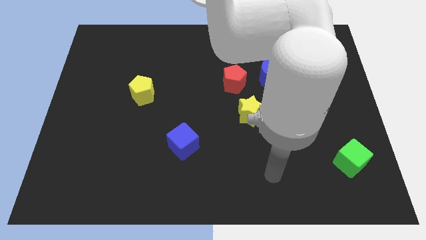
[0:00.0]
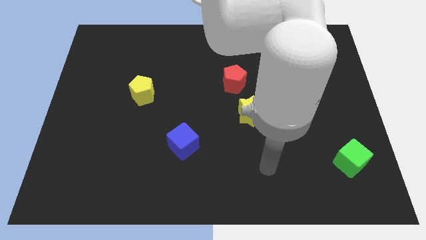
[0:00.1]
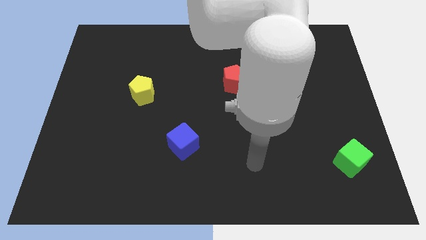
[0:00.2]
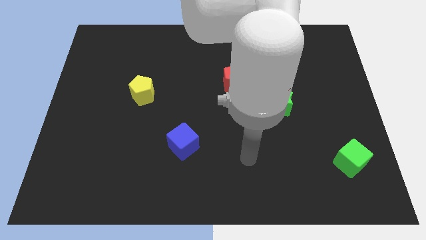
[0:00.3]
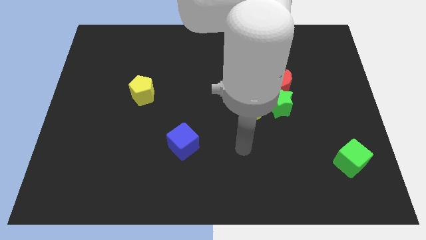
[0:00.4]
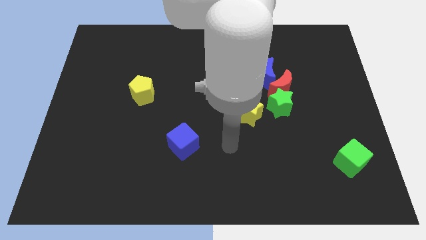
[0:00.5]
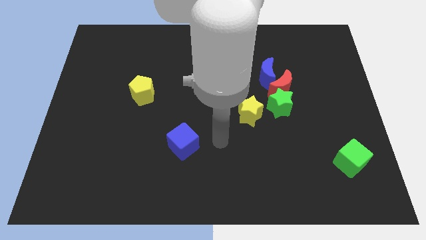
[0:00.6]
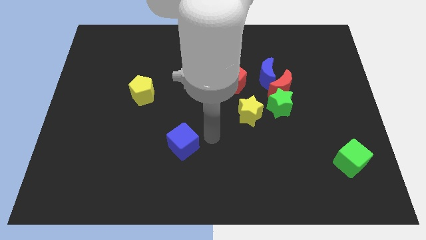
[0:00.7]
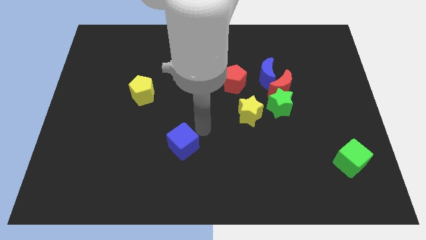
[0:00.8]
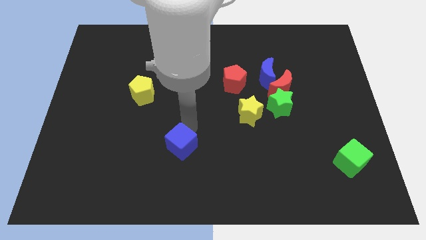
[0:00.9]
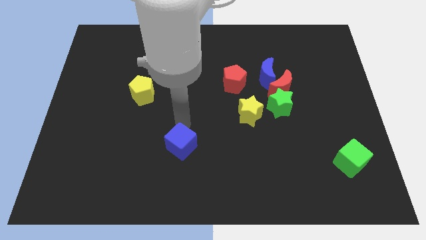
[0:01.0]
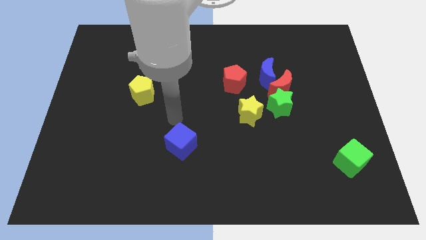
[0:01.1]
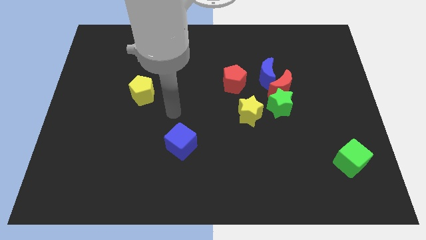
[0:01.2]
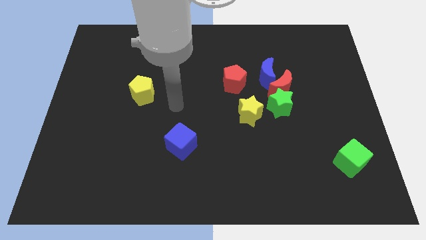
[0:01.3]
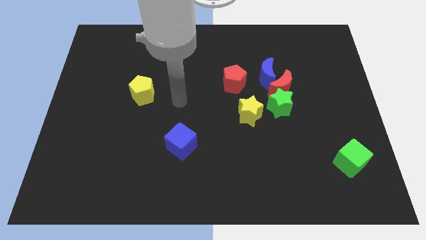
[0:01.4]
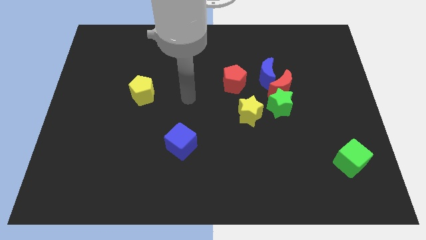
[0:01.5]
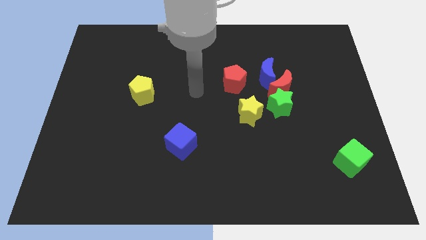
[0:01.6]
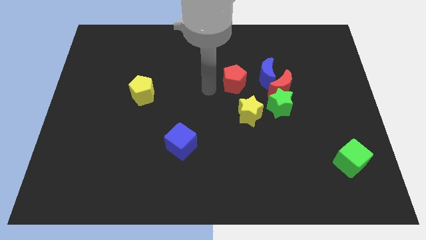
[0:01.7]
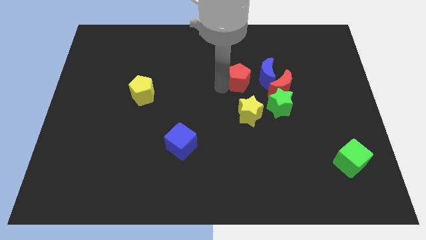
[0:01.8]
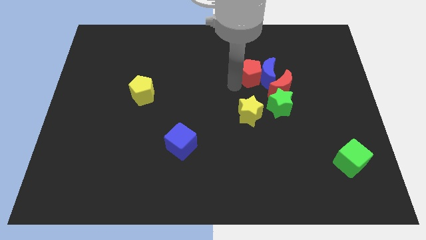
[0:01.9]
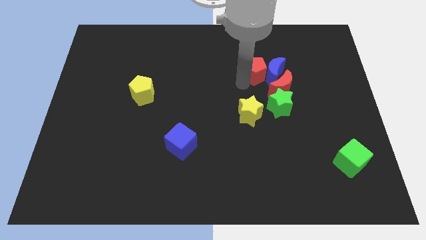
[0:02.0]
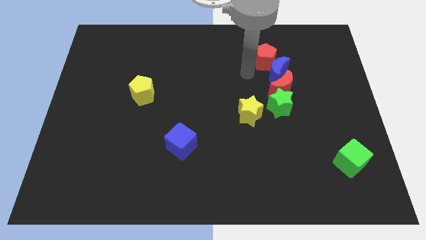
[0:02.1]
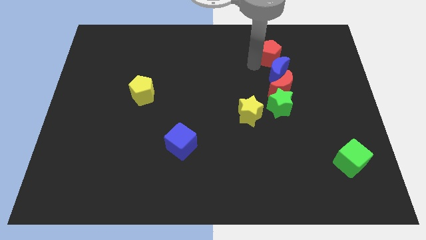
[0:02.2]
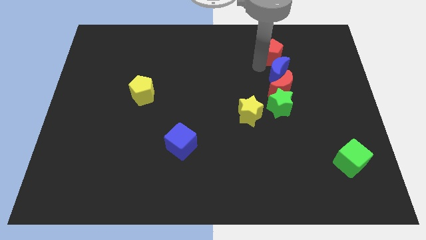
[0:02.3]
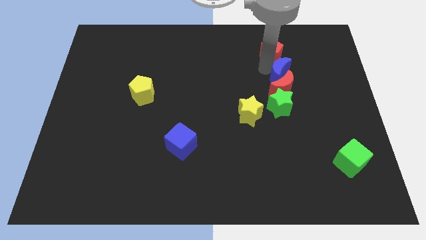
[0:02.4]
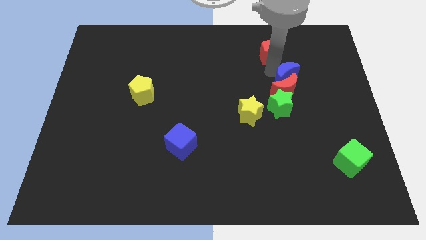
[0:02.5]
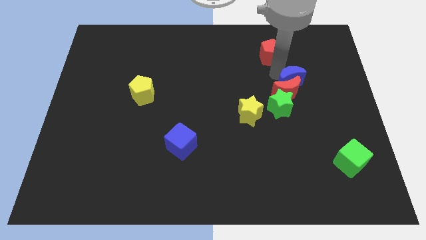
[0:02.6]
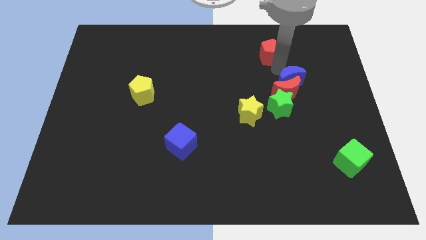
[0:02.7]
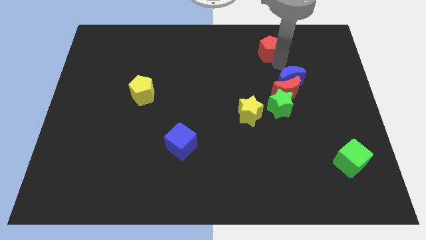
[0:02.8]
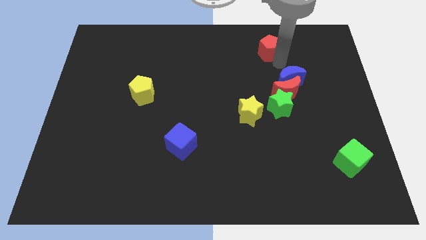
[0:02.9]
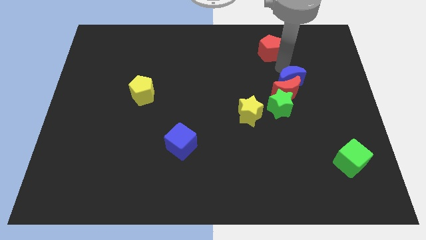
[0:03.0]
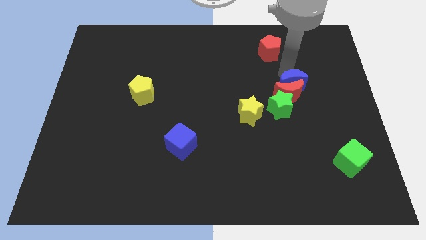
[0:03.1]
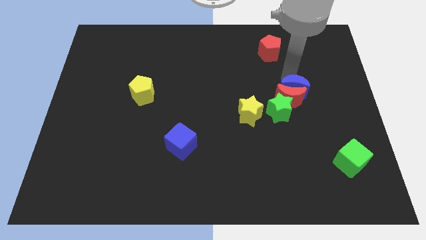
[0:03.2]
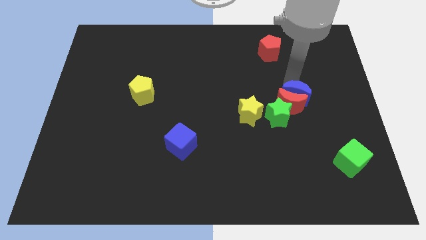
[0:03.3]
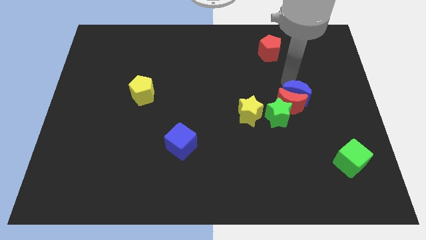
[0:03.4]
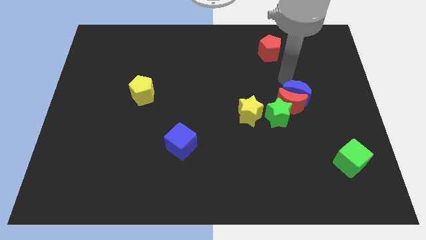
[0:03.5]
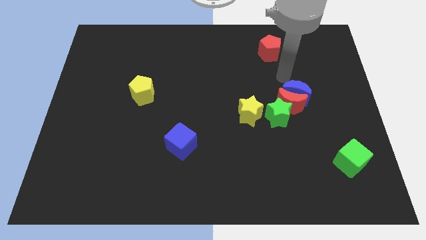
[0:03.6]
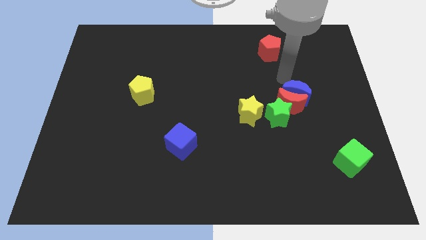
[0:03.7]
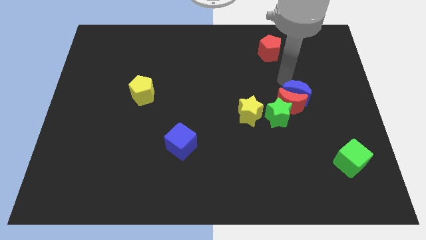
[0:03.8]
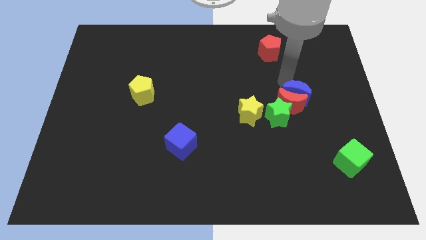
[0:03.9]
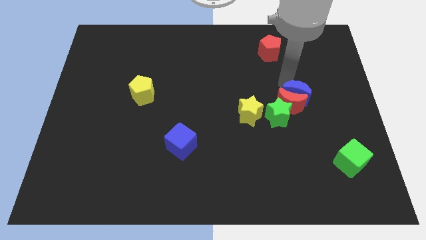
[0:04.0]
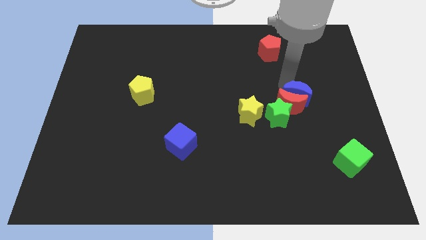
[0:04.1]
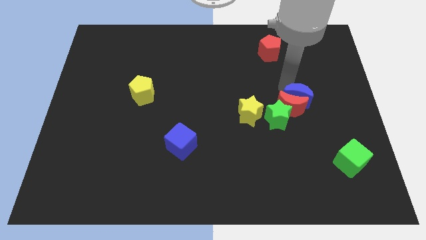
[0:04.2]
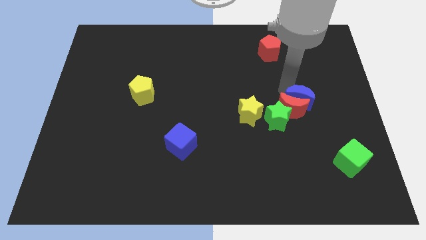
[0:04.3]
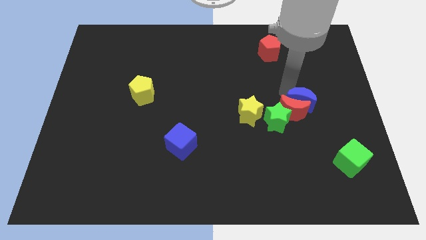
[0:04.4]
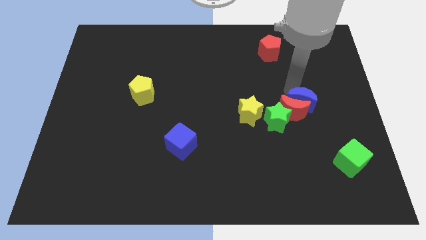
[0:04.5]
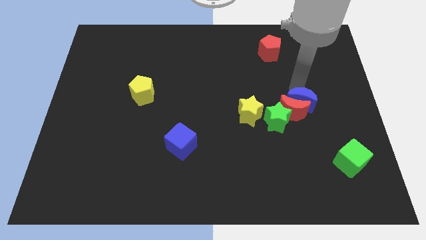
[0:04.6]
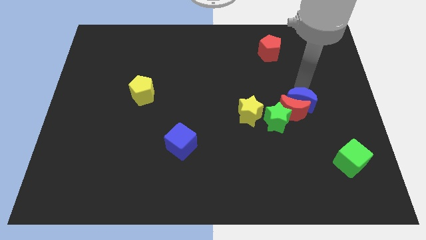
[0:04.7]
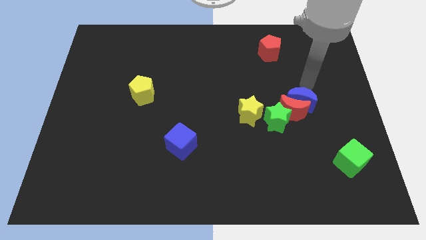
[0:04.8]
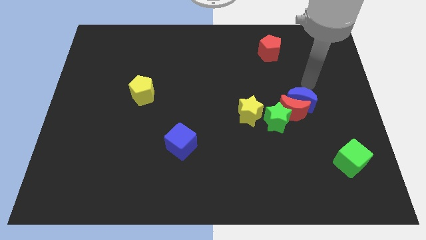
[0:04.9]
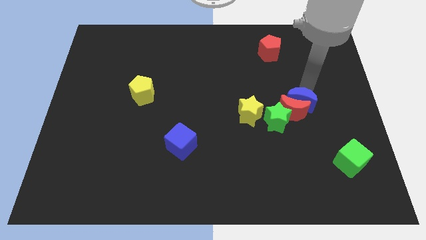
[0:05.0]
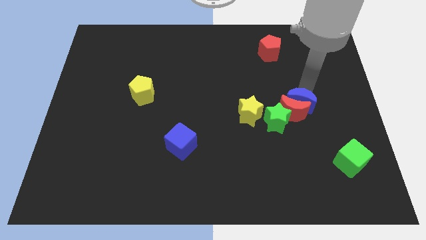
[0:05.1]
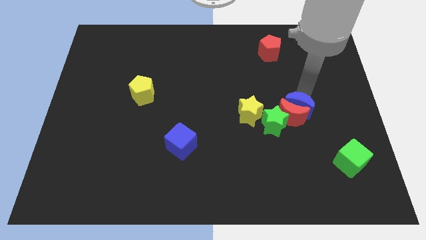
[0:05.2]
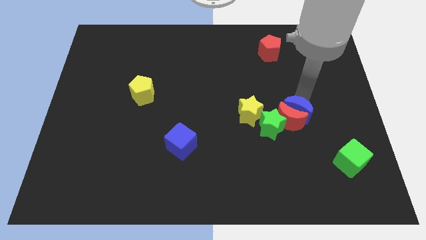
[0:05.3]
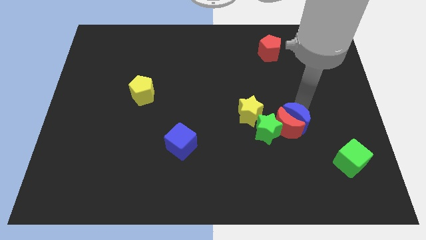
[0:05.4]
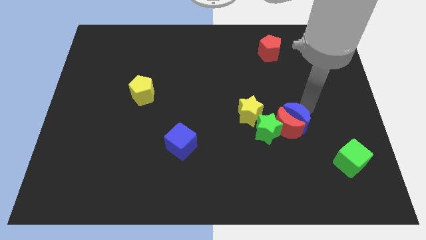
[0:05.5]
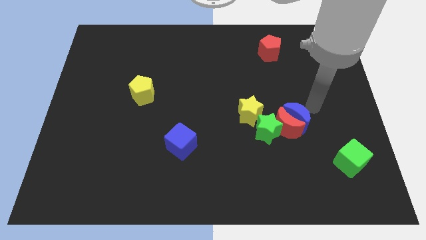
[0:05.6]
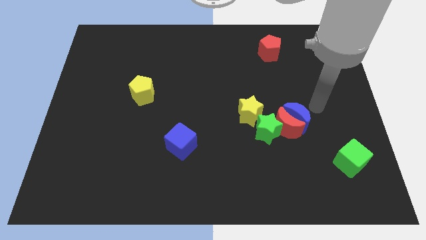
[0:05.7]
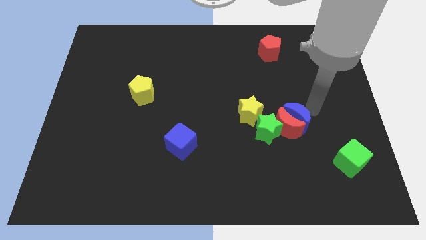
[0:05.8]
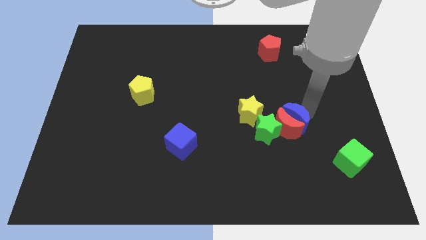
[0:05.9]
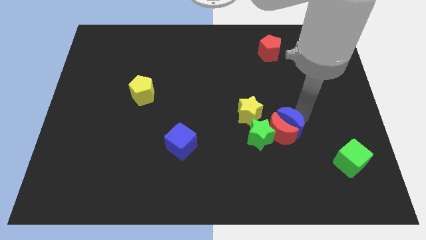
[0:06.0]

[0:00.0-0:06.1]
slide the blue moon to the bottom right of the yellow star

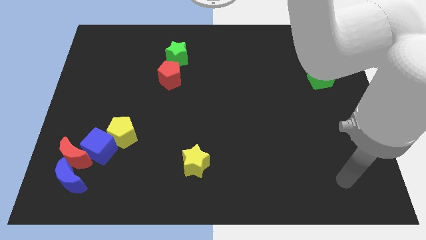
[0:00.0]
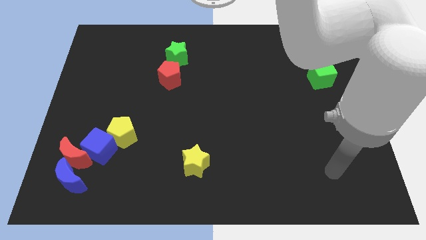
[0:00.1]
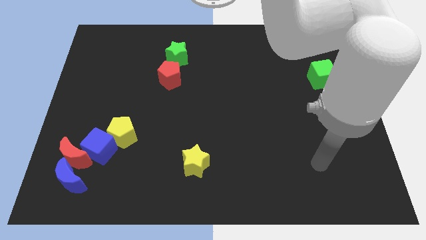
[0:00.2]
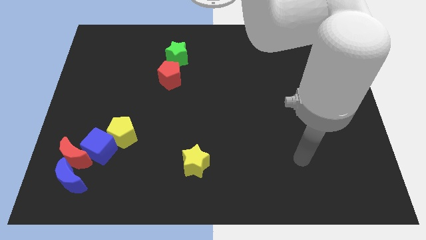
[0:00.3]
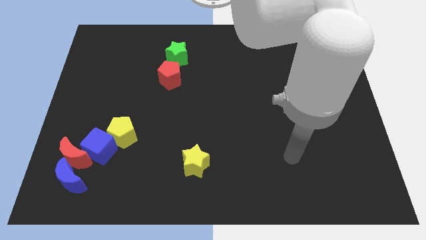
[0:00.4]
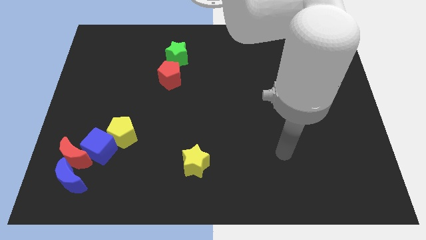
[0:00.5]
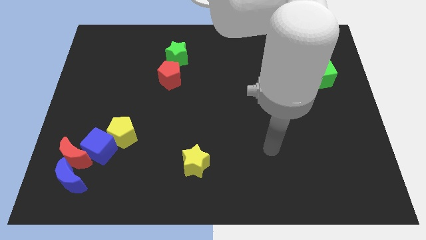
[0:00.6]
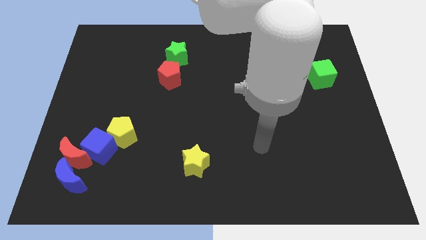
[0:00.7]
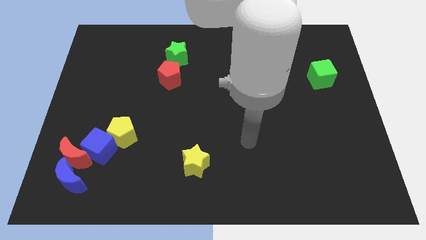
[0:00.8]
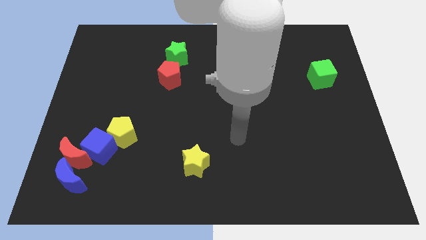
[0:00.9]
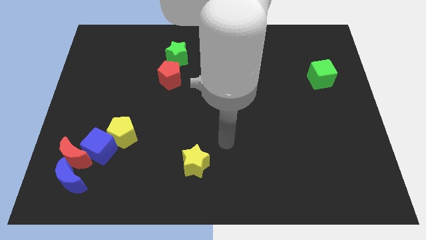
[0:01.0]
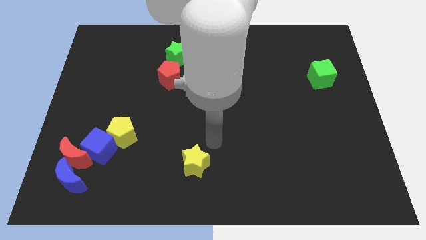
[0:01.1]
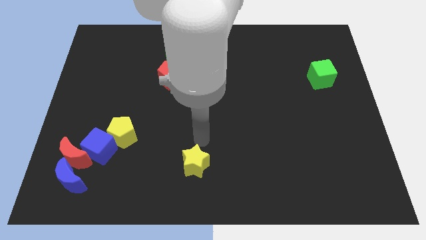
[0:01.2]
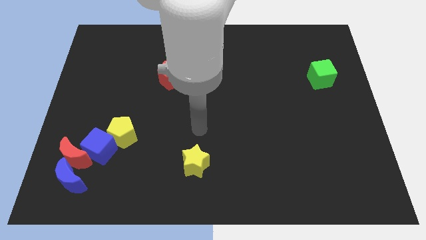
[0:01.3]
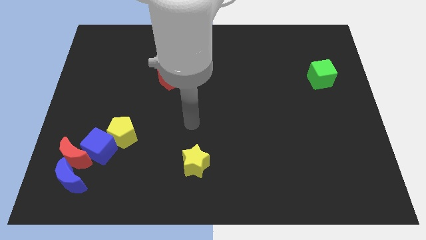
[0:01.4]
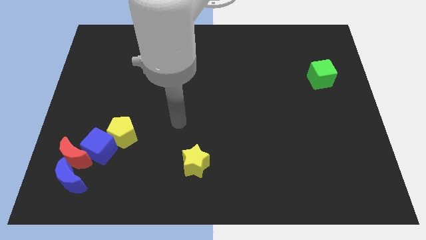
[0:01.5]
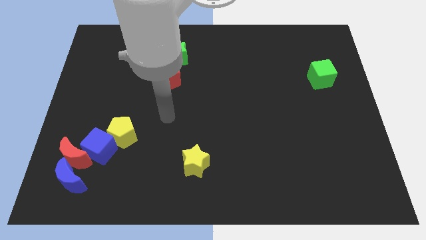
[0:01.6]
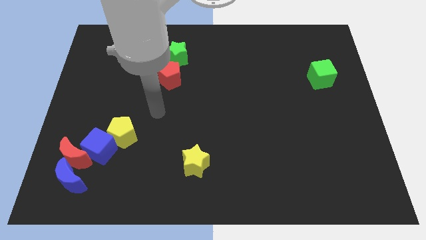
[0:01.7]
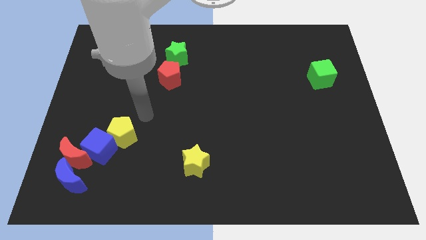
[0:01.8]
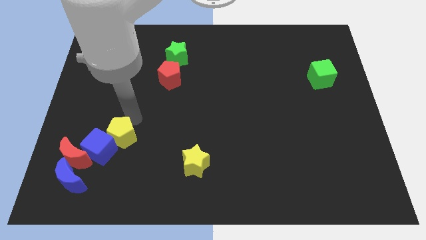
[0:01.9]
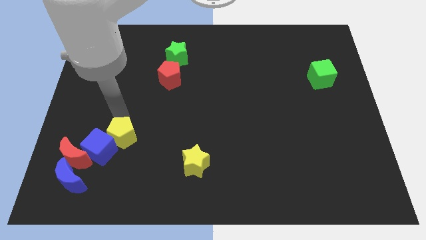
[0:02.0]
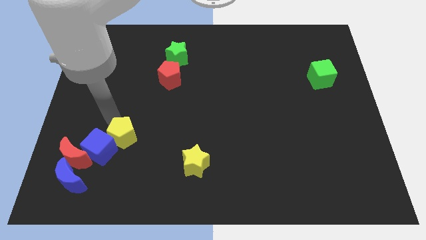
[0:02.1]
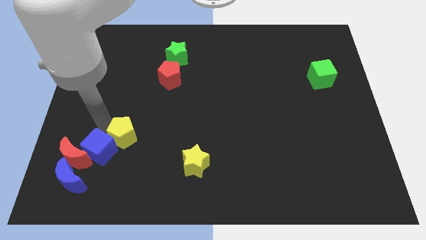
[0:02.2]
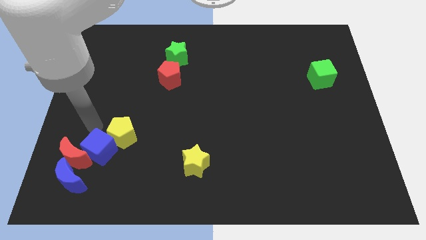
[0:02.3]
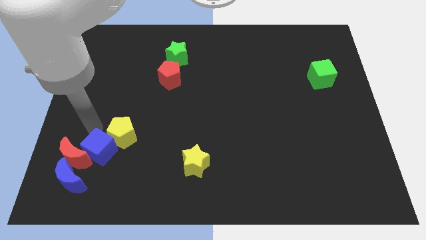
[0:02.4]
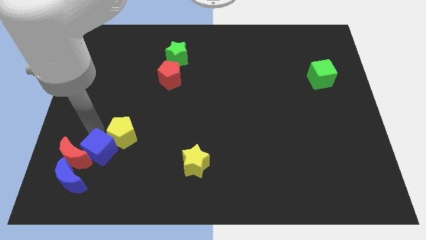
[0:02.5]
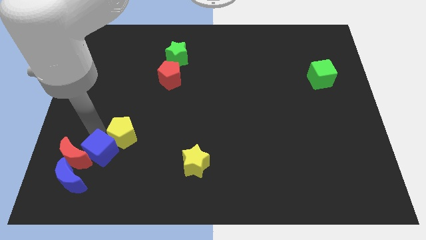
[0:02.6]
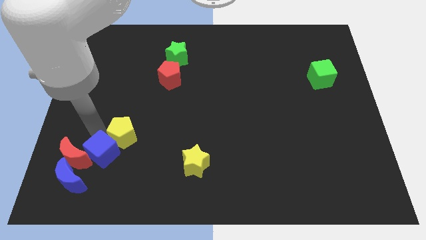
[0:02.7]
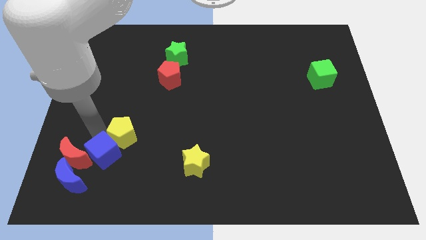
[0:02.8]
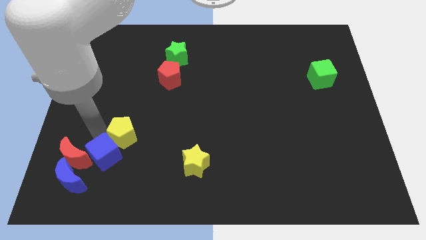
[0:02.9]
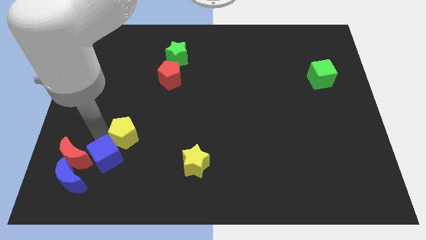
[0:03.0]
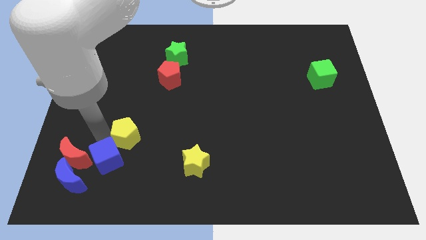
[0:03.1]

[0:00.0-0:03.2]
push the blue cube just right of the blue moon
